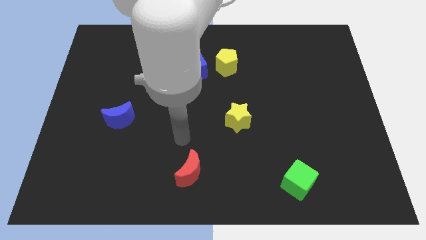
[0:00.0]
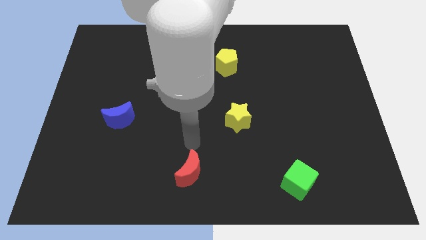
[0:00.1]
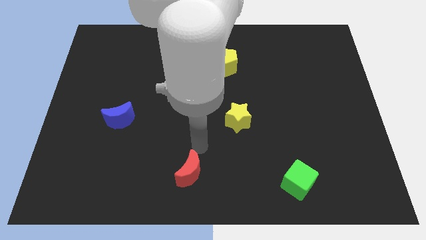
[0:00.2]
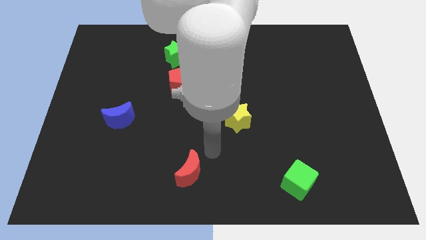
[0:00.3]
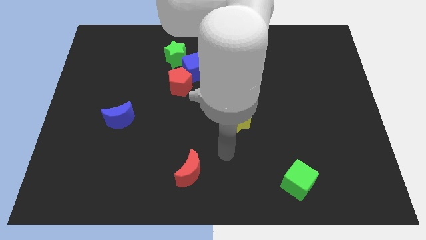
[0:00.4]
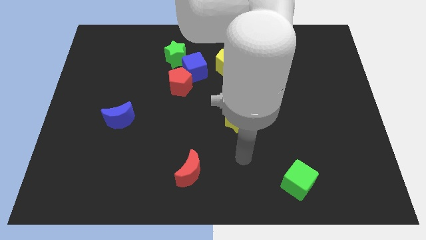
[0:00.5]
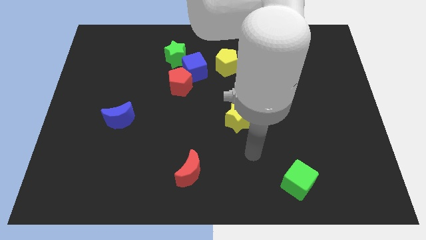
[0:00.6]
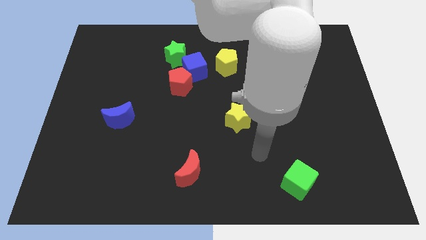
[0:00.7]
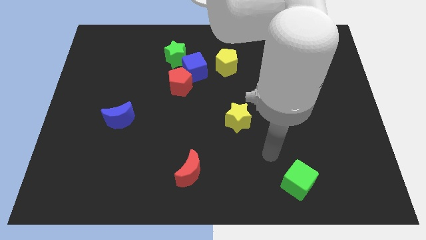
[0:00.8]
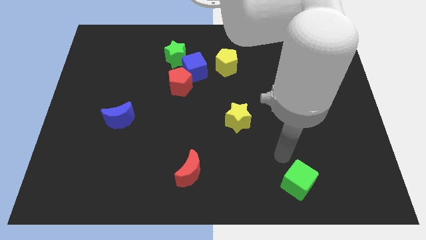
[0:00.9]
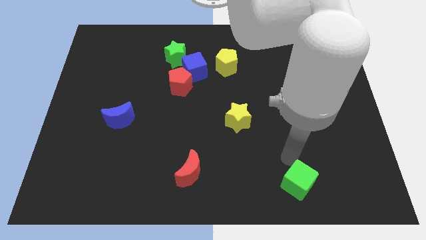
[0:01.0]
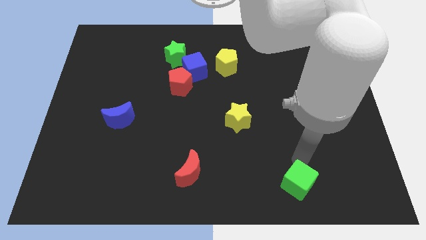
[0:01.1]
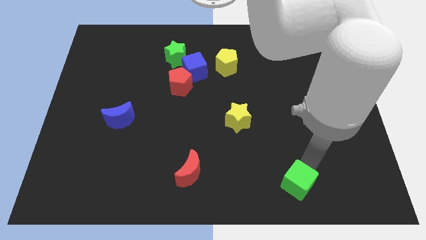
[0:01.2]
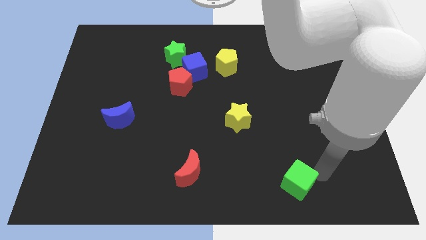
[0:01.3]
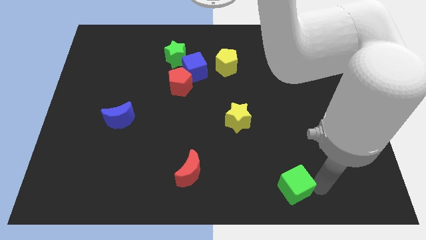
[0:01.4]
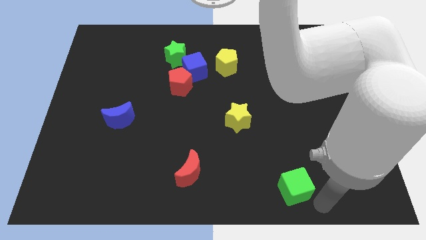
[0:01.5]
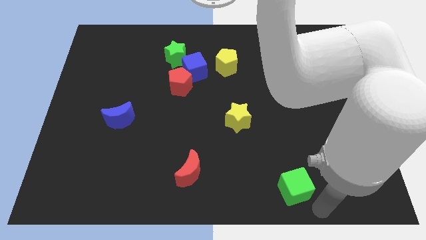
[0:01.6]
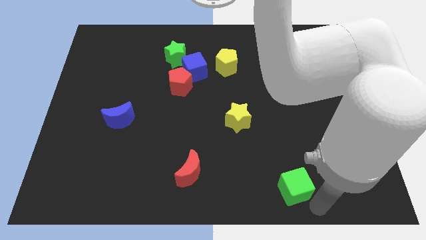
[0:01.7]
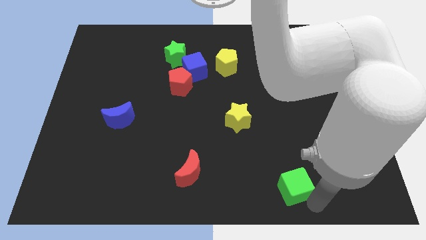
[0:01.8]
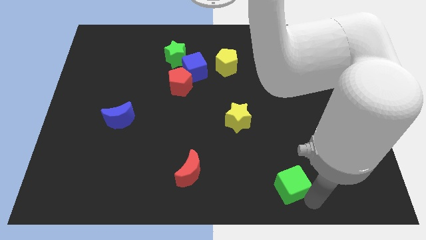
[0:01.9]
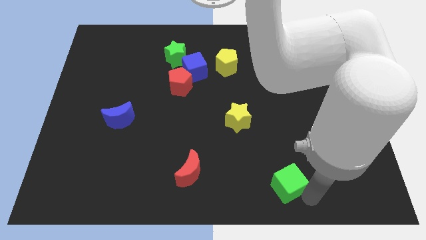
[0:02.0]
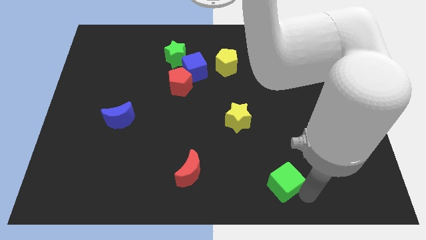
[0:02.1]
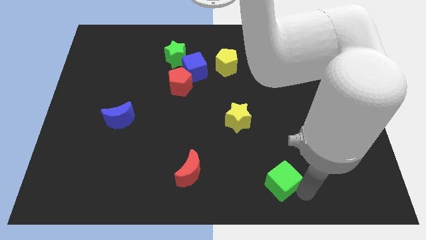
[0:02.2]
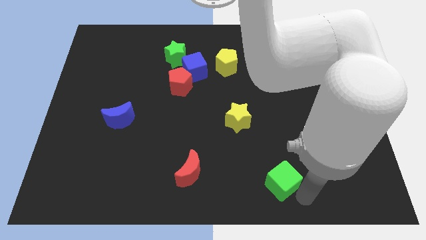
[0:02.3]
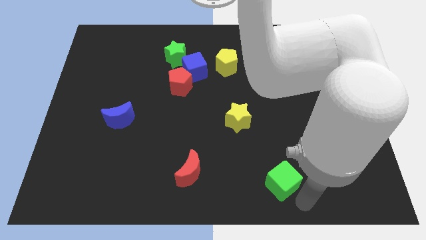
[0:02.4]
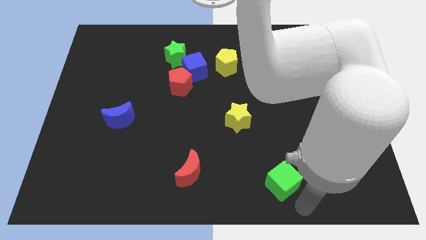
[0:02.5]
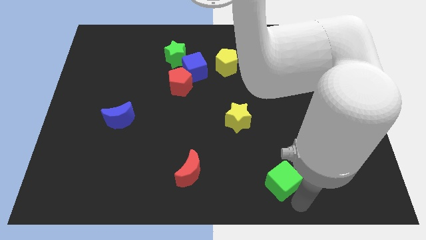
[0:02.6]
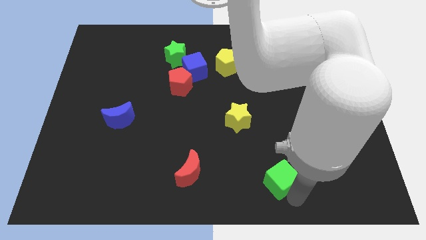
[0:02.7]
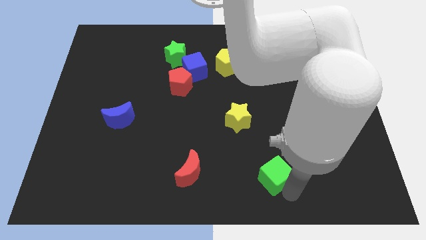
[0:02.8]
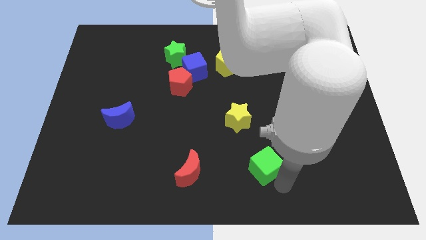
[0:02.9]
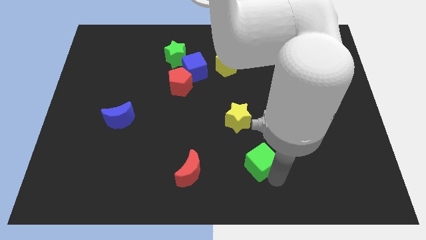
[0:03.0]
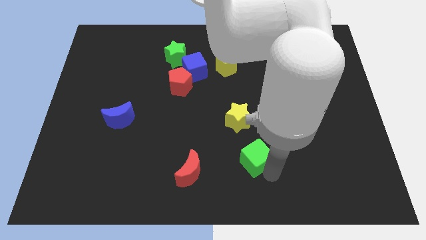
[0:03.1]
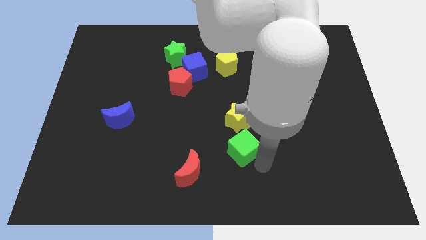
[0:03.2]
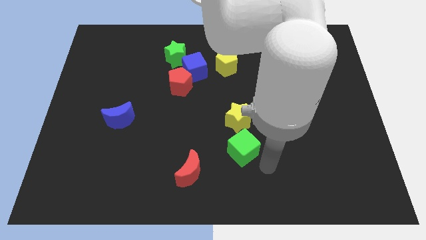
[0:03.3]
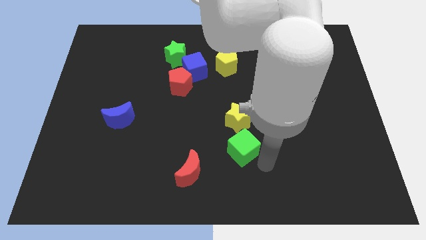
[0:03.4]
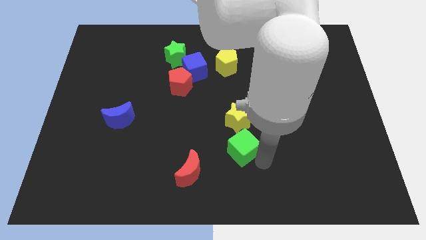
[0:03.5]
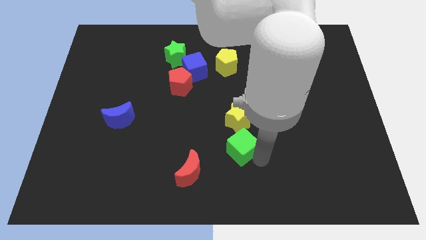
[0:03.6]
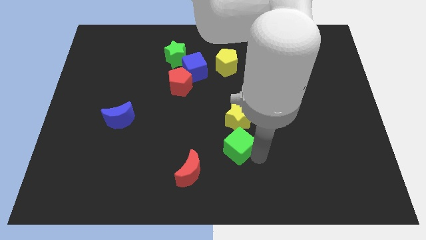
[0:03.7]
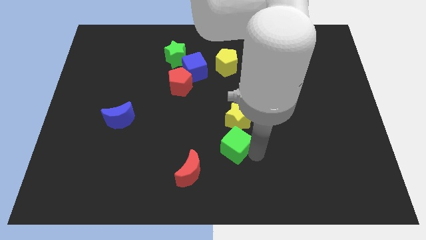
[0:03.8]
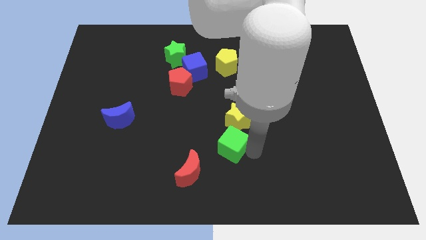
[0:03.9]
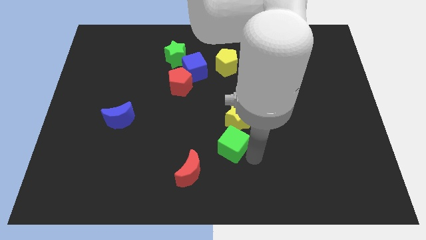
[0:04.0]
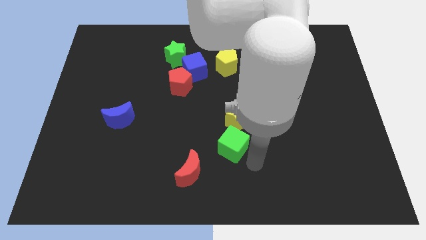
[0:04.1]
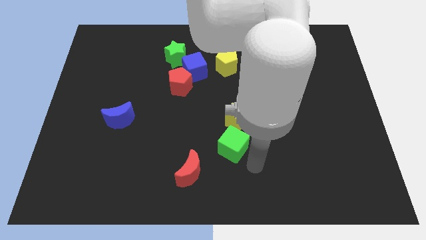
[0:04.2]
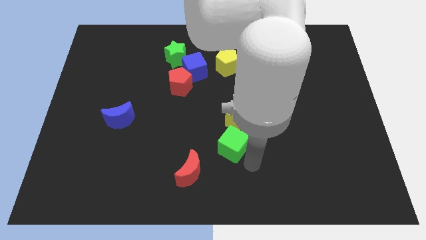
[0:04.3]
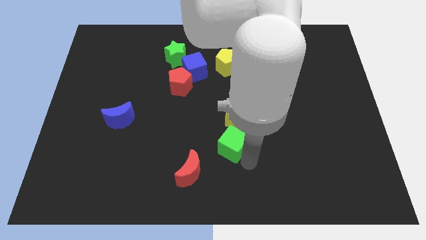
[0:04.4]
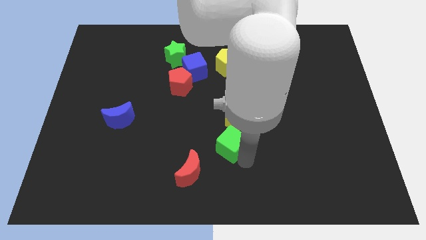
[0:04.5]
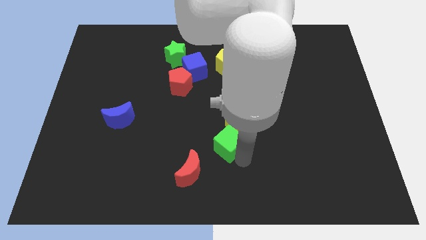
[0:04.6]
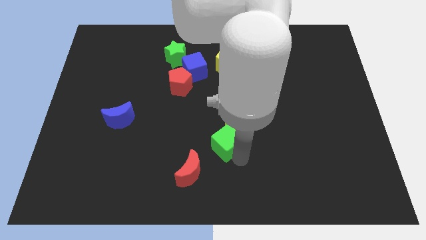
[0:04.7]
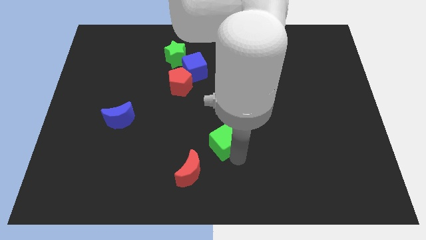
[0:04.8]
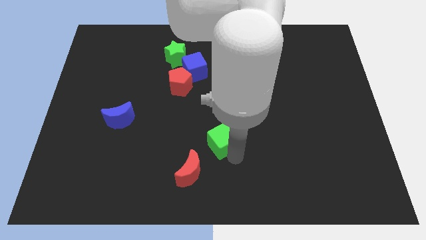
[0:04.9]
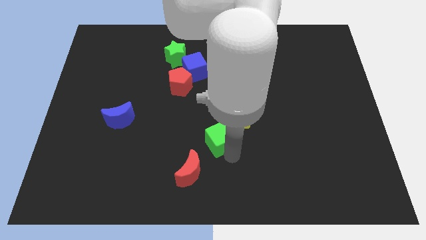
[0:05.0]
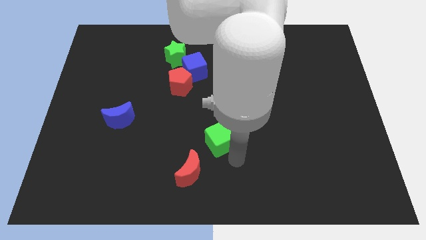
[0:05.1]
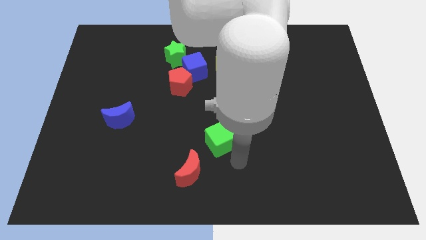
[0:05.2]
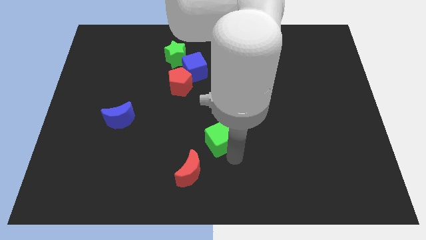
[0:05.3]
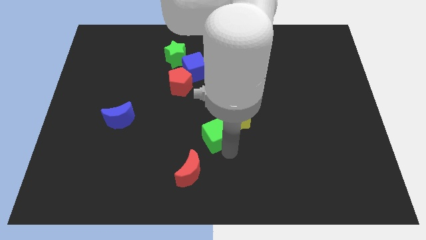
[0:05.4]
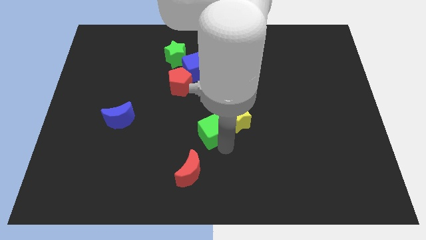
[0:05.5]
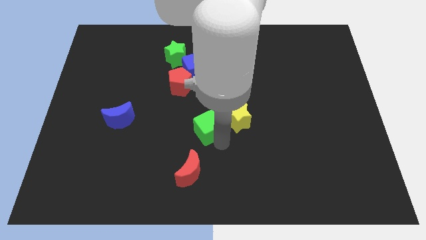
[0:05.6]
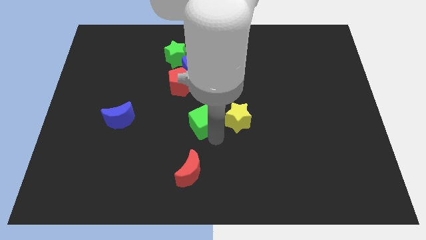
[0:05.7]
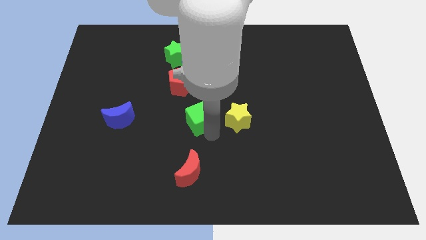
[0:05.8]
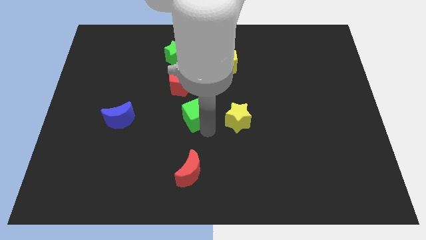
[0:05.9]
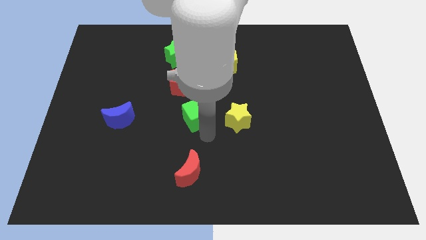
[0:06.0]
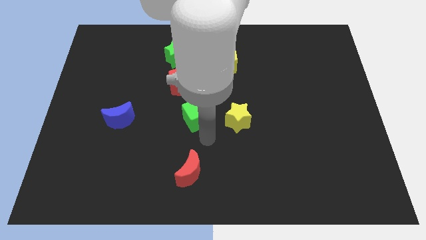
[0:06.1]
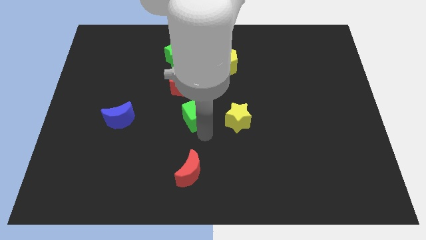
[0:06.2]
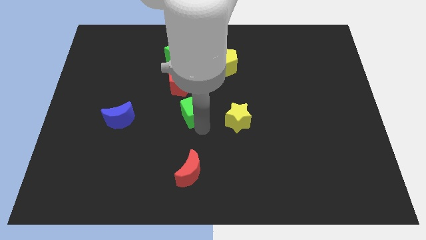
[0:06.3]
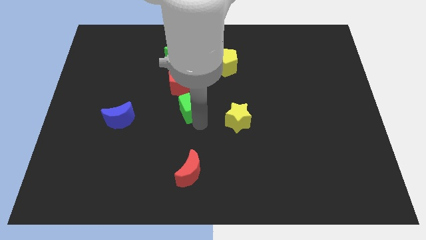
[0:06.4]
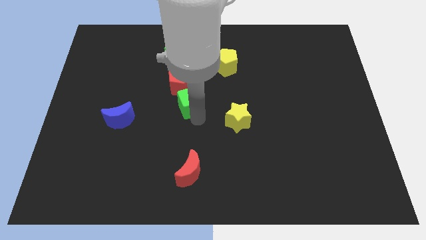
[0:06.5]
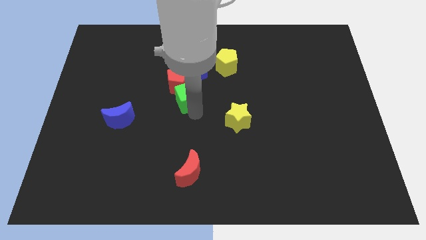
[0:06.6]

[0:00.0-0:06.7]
slide the green cube close to the red pentagon

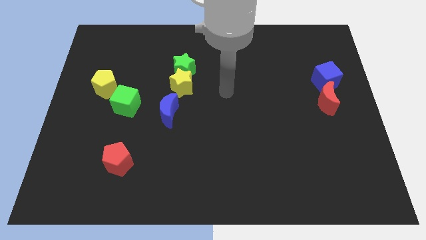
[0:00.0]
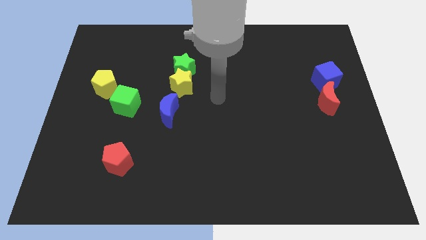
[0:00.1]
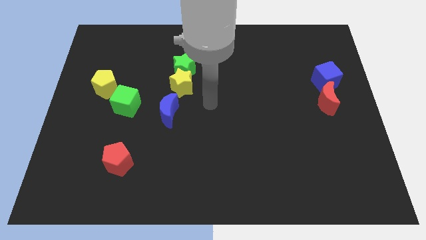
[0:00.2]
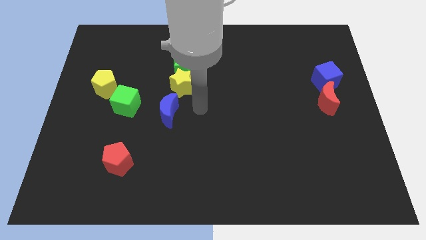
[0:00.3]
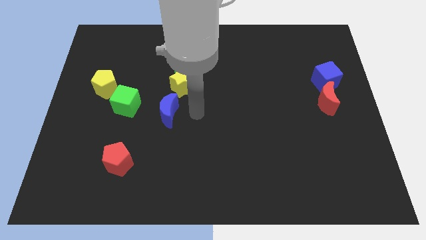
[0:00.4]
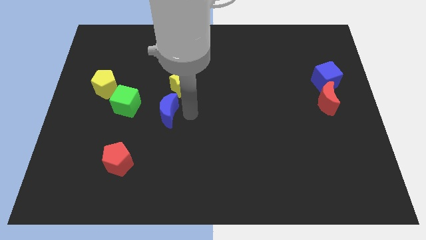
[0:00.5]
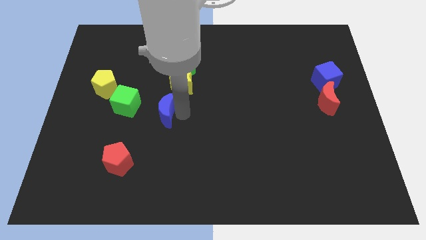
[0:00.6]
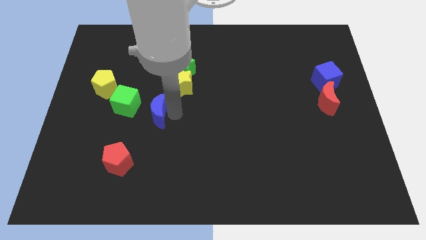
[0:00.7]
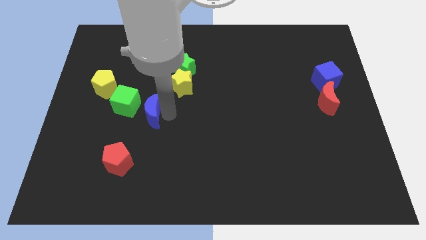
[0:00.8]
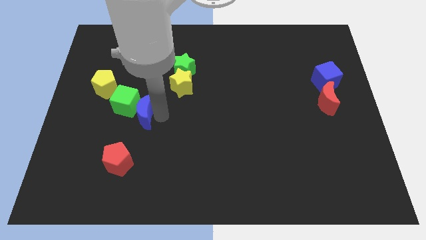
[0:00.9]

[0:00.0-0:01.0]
push the blue moon towards the green cube
